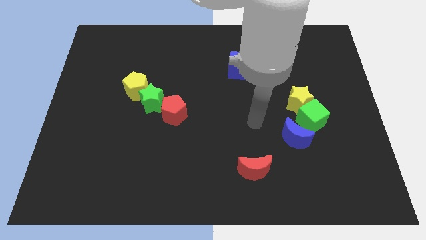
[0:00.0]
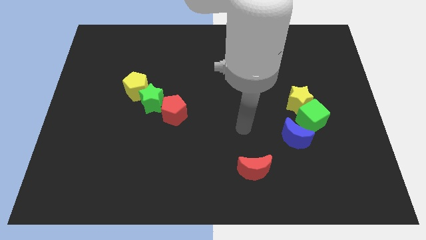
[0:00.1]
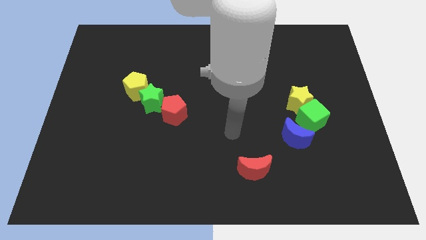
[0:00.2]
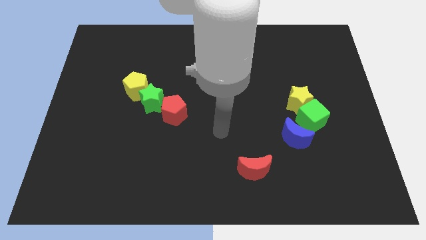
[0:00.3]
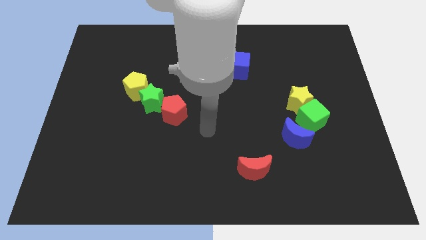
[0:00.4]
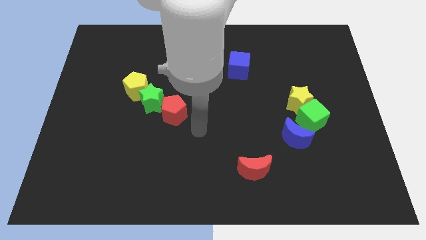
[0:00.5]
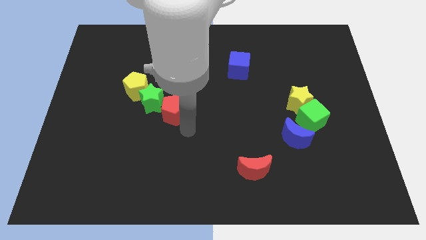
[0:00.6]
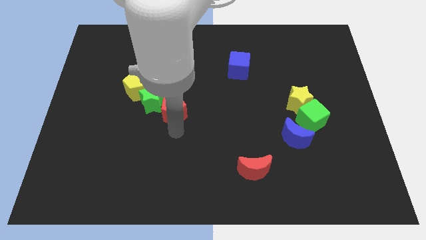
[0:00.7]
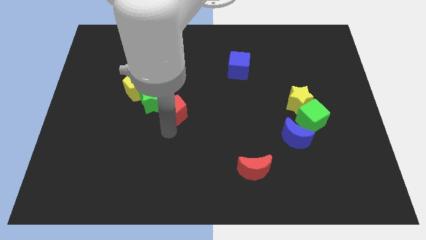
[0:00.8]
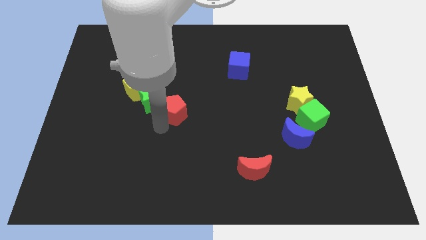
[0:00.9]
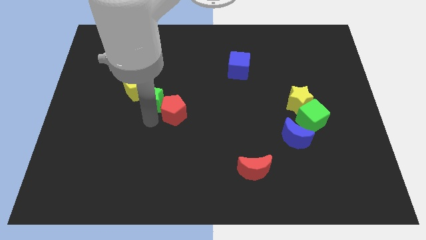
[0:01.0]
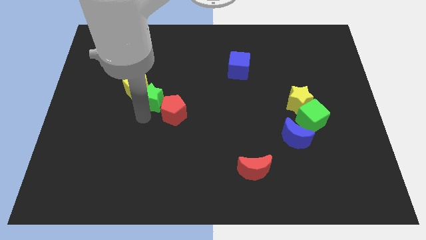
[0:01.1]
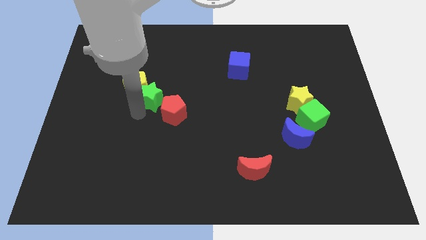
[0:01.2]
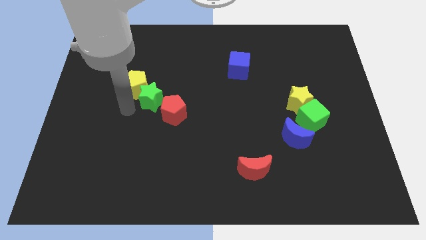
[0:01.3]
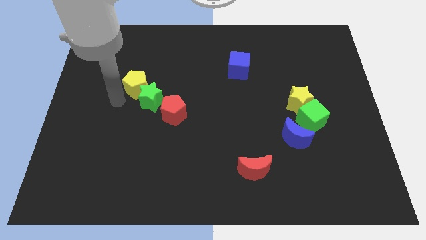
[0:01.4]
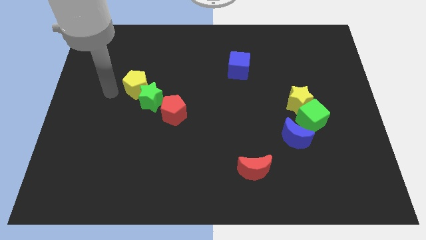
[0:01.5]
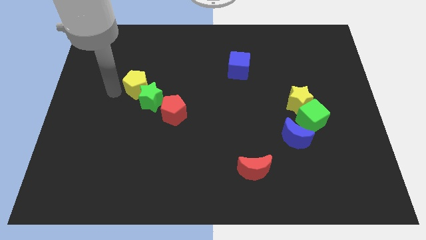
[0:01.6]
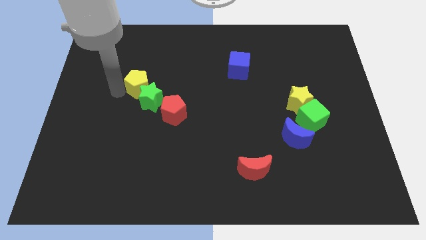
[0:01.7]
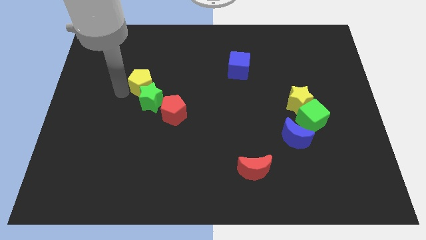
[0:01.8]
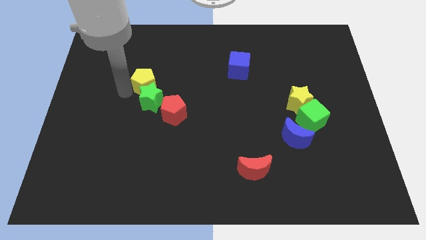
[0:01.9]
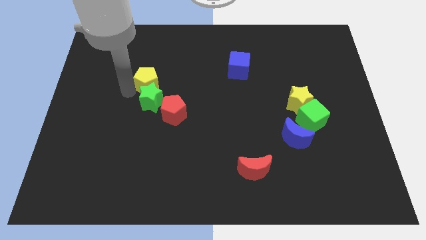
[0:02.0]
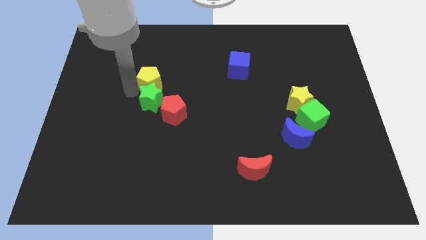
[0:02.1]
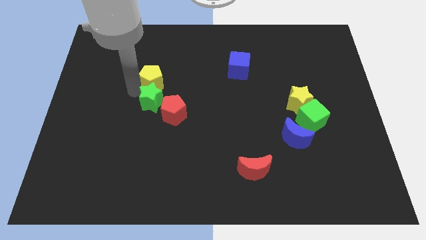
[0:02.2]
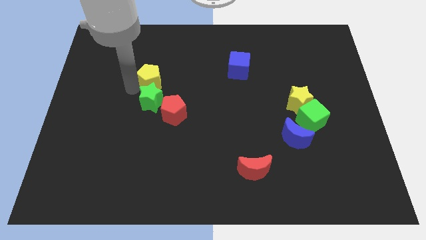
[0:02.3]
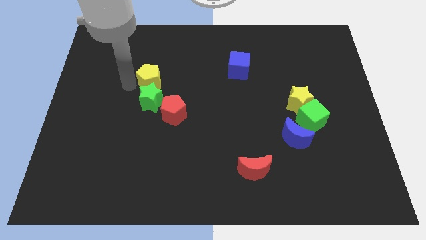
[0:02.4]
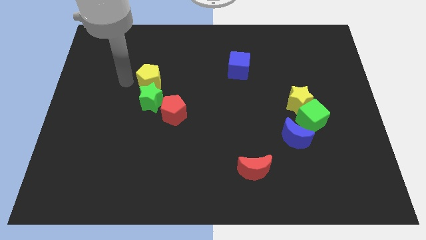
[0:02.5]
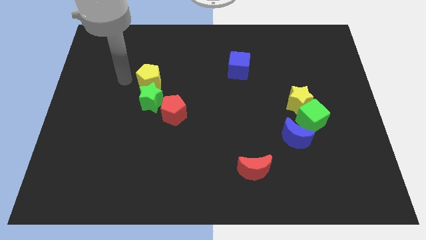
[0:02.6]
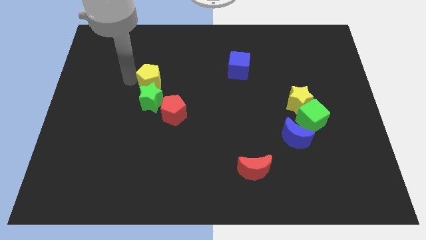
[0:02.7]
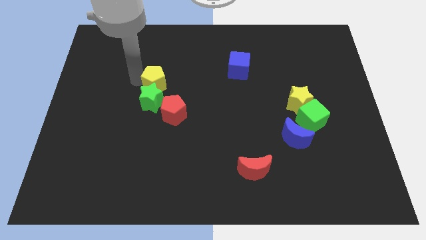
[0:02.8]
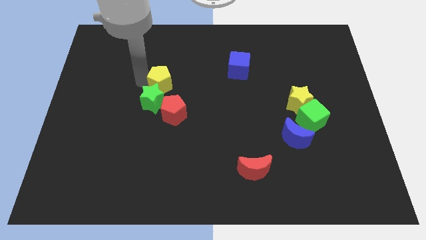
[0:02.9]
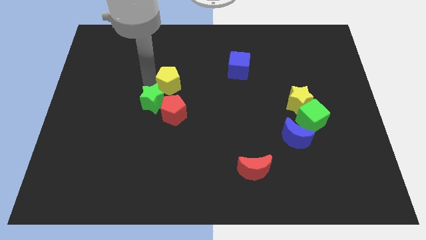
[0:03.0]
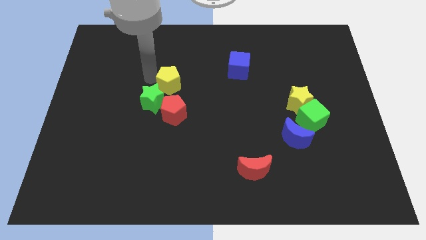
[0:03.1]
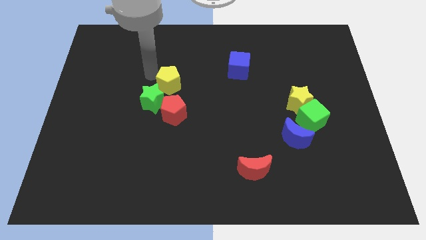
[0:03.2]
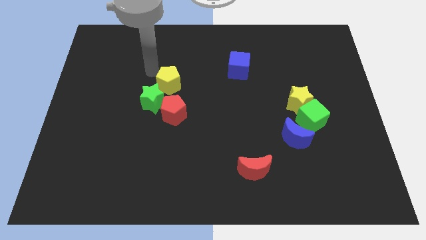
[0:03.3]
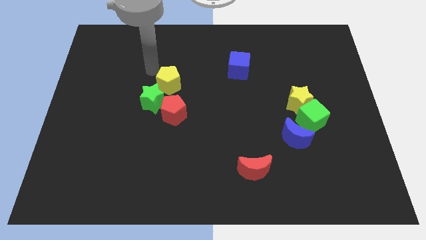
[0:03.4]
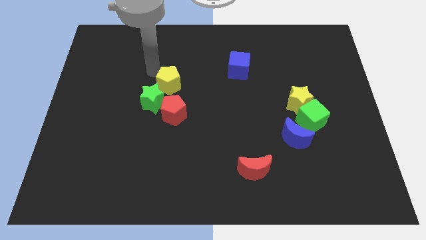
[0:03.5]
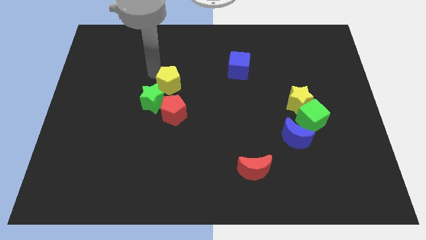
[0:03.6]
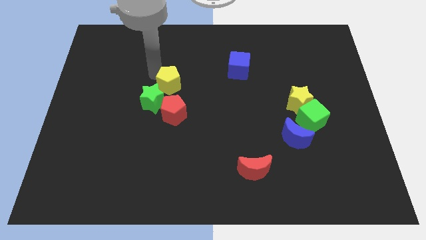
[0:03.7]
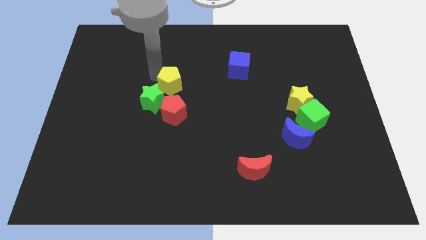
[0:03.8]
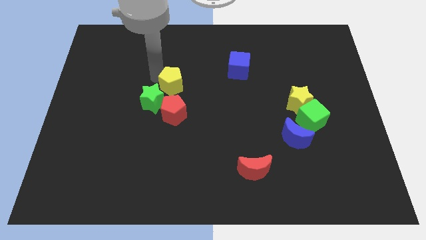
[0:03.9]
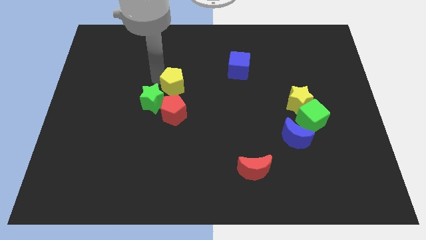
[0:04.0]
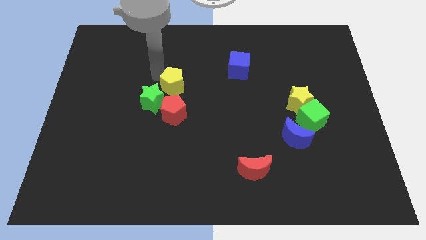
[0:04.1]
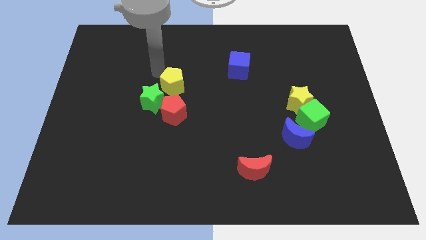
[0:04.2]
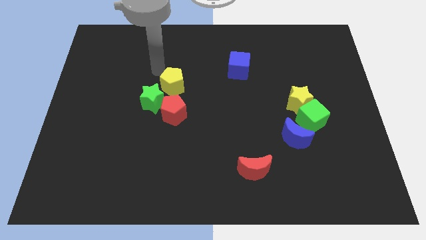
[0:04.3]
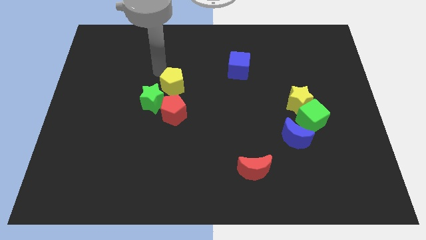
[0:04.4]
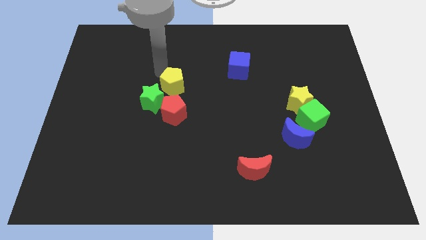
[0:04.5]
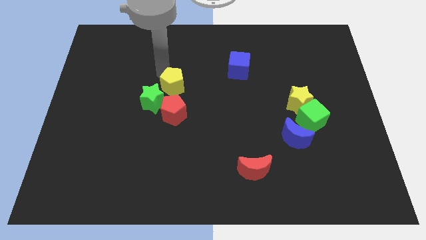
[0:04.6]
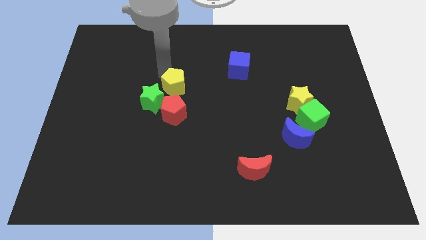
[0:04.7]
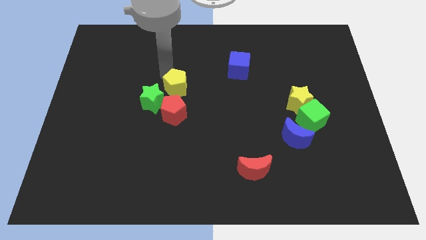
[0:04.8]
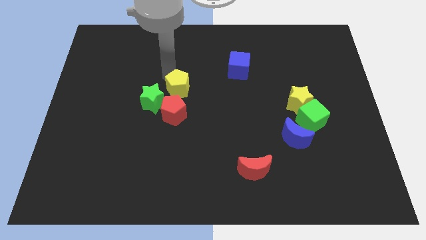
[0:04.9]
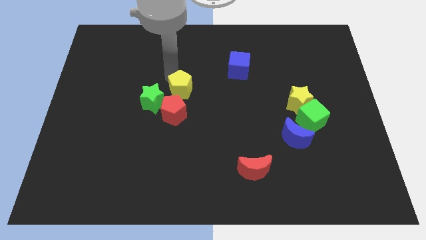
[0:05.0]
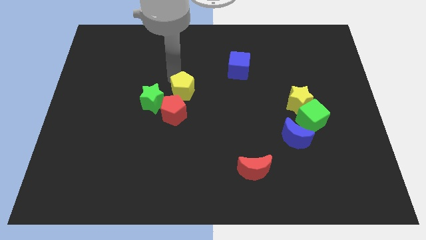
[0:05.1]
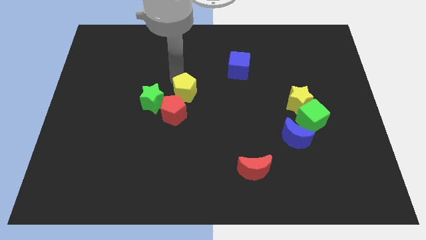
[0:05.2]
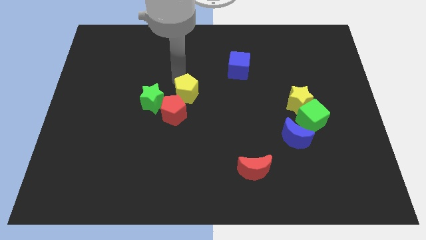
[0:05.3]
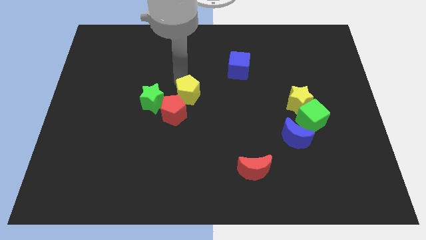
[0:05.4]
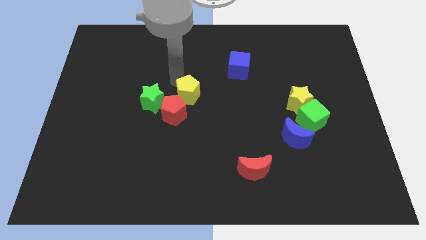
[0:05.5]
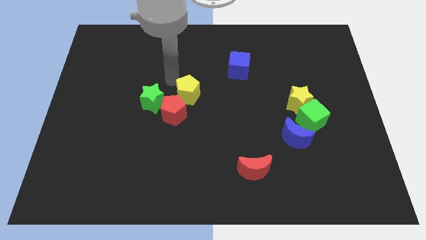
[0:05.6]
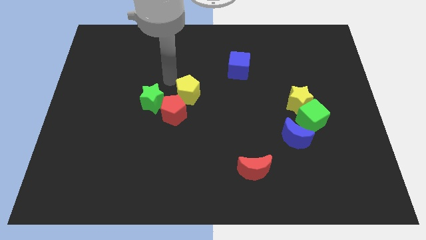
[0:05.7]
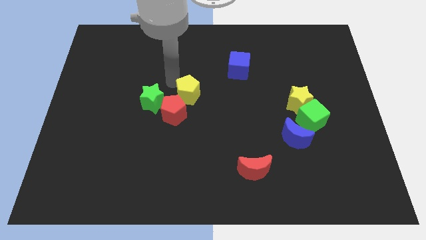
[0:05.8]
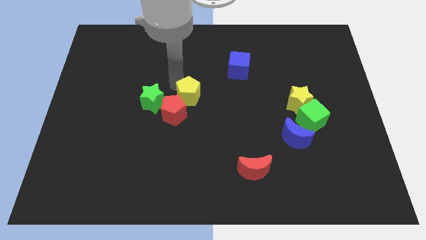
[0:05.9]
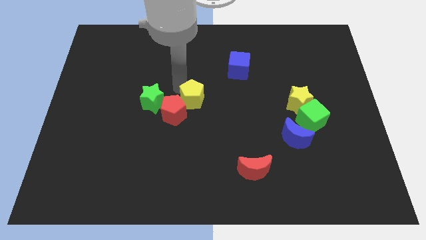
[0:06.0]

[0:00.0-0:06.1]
push the yellow pentagon to the right of the red pentagon

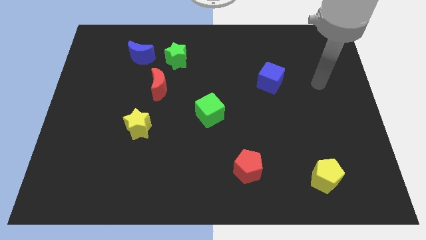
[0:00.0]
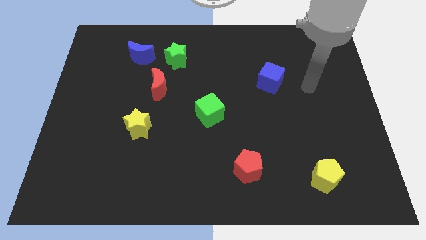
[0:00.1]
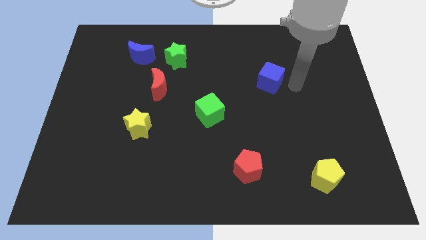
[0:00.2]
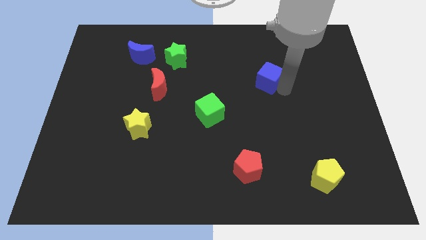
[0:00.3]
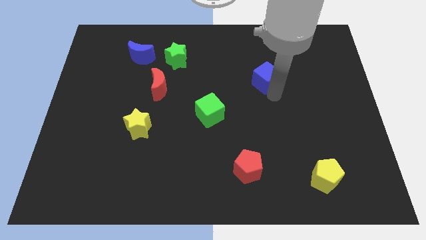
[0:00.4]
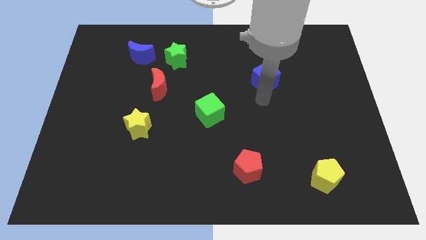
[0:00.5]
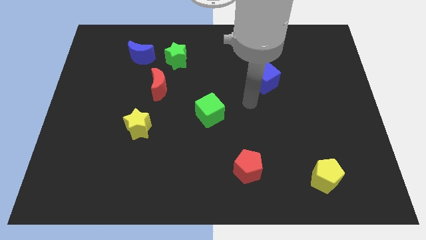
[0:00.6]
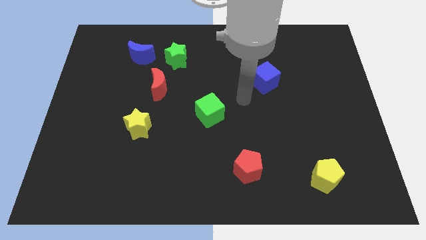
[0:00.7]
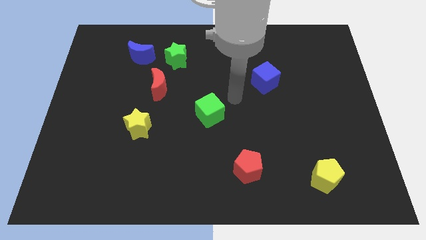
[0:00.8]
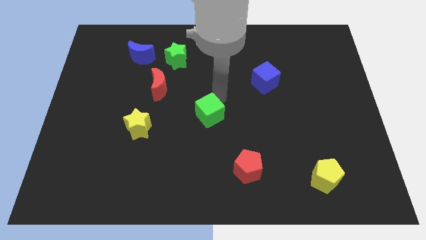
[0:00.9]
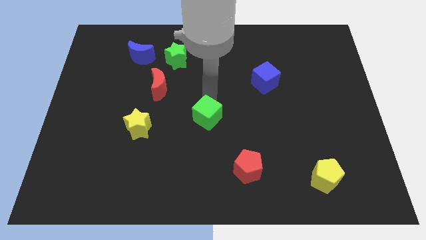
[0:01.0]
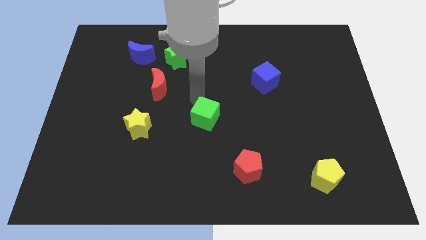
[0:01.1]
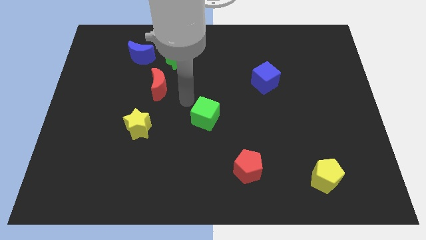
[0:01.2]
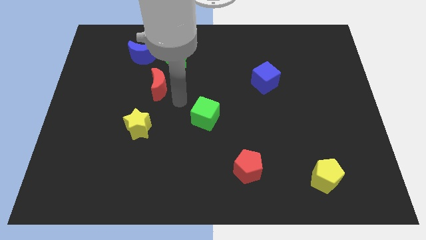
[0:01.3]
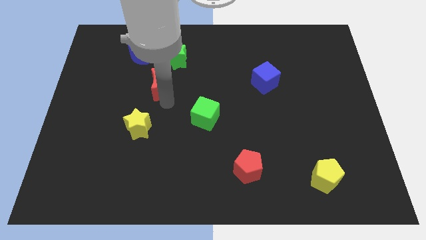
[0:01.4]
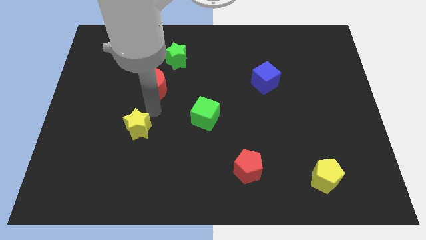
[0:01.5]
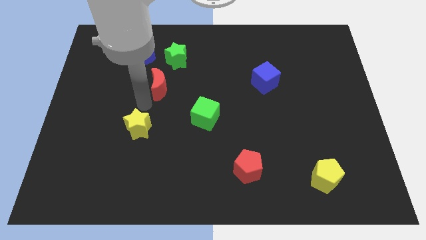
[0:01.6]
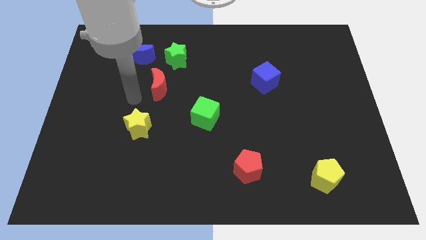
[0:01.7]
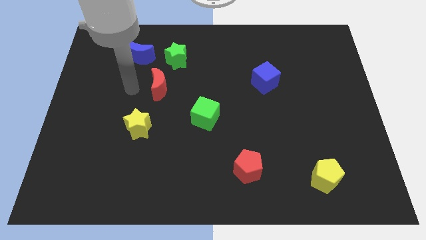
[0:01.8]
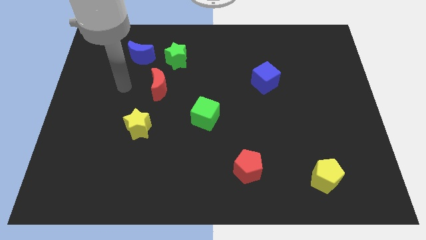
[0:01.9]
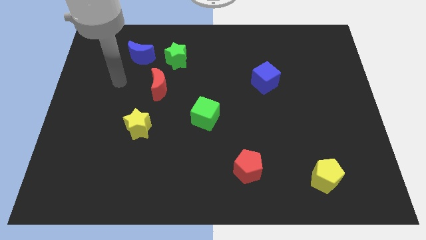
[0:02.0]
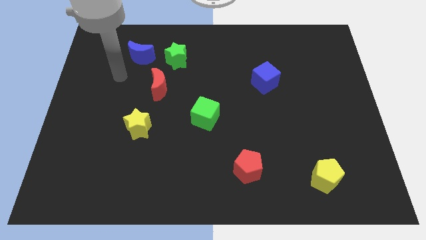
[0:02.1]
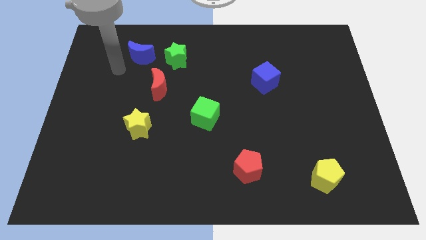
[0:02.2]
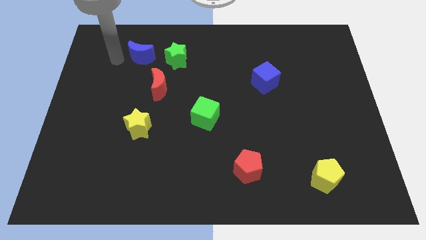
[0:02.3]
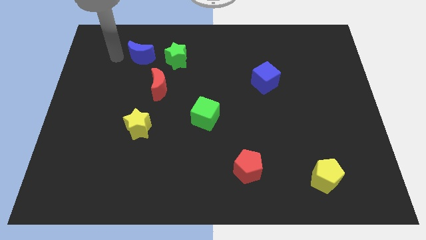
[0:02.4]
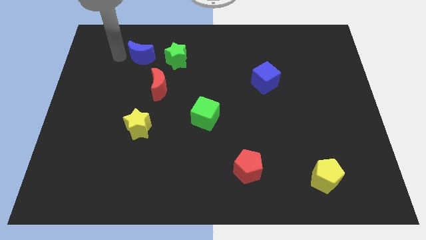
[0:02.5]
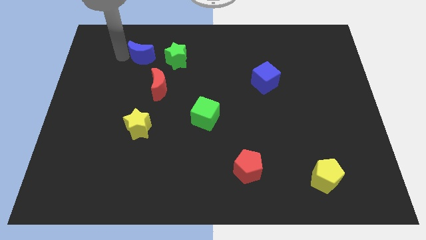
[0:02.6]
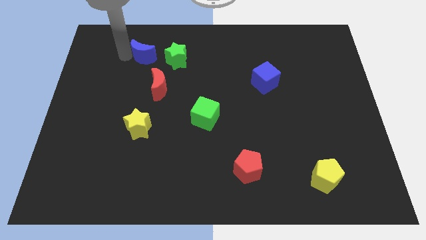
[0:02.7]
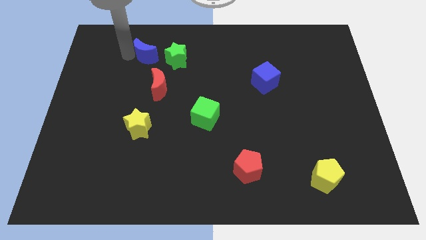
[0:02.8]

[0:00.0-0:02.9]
slide the blue moon above the red moon
